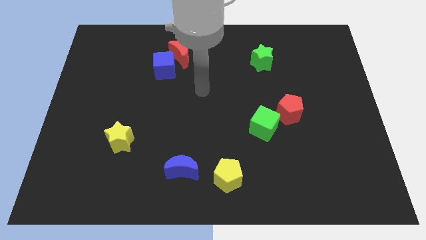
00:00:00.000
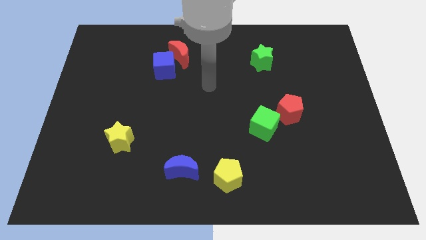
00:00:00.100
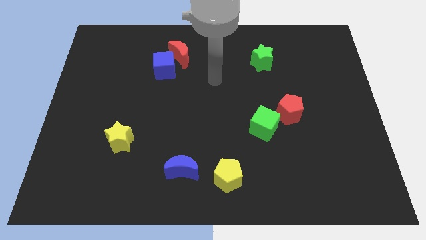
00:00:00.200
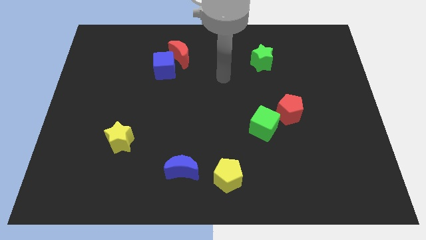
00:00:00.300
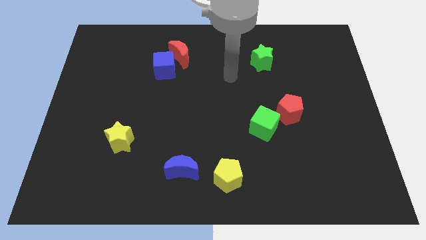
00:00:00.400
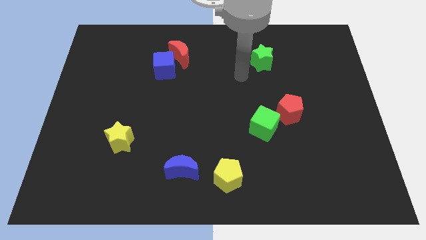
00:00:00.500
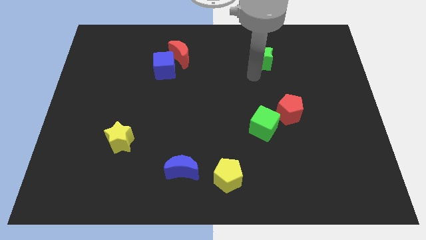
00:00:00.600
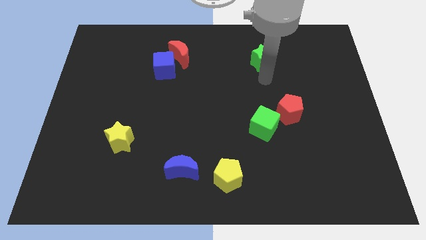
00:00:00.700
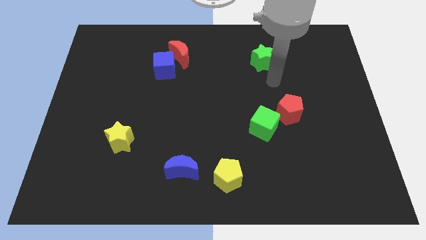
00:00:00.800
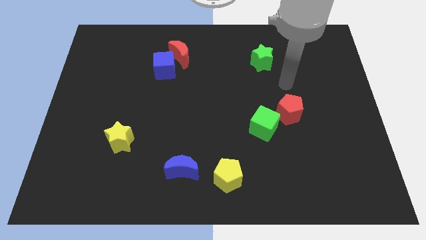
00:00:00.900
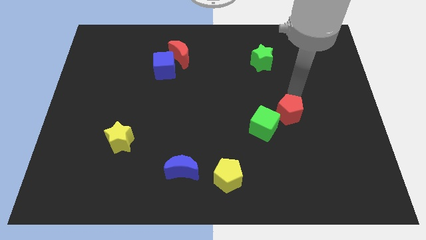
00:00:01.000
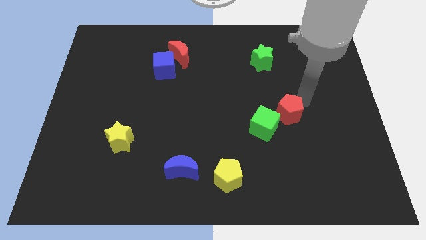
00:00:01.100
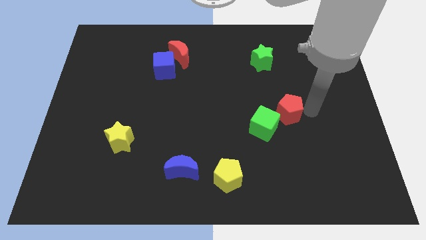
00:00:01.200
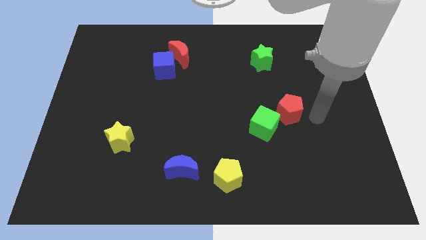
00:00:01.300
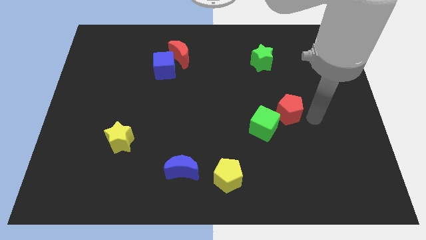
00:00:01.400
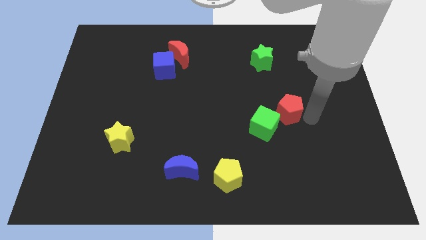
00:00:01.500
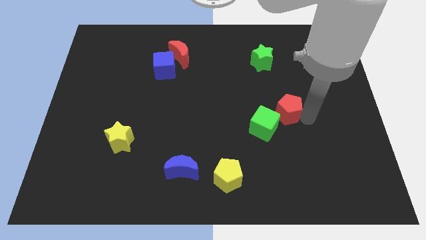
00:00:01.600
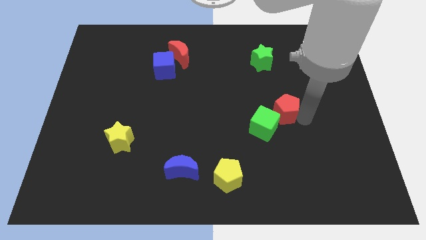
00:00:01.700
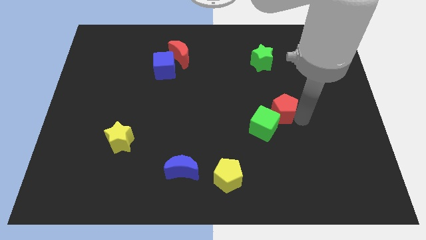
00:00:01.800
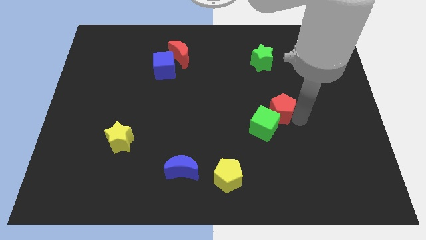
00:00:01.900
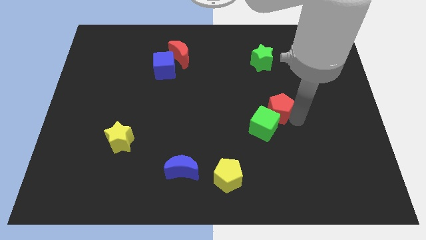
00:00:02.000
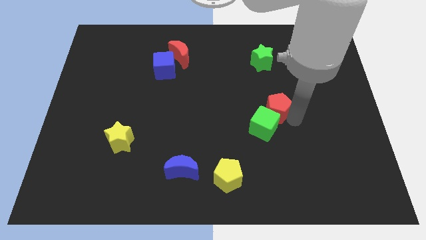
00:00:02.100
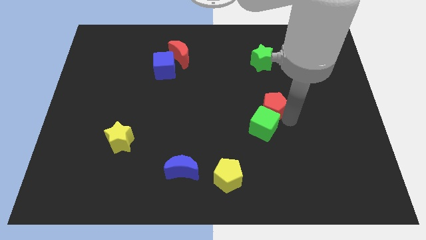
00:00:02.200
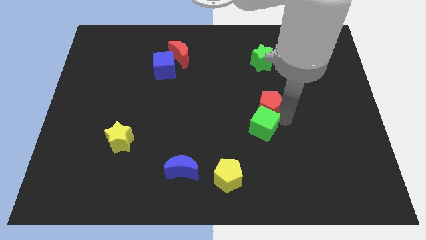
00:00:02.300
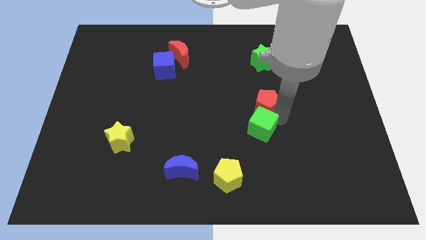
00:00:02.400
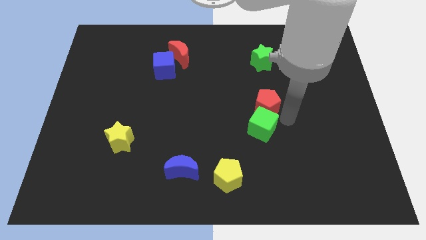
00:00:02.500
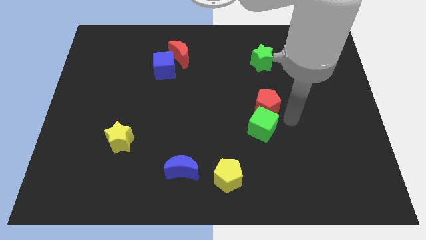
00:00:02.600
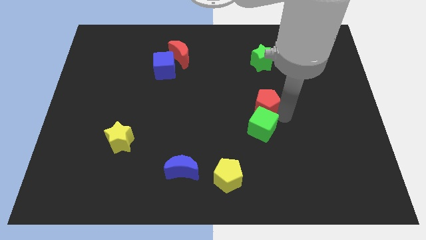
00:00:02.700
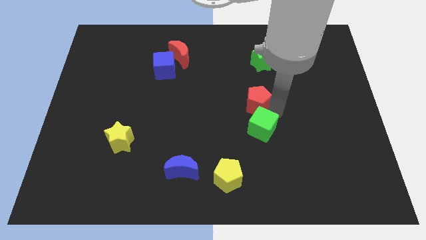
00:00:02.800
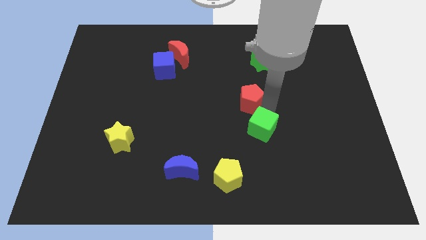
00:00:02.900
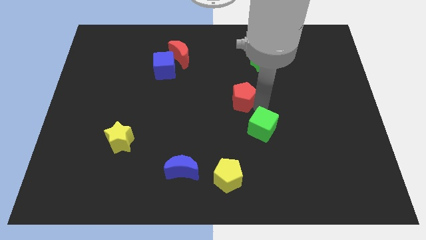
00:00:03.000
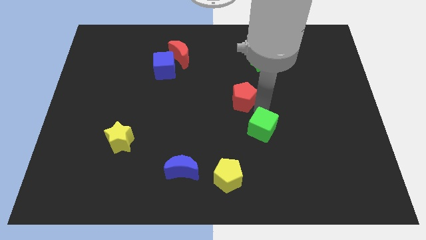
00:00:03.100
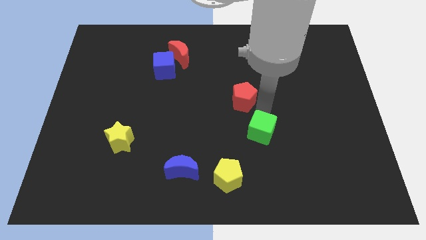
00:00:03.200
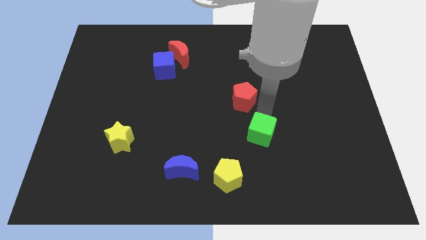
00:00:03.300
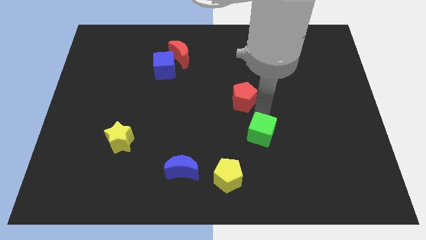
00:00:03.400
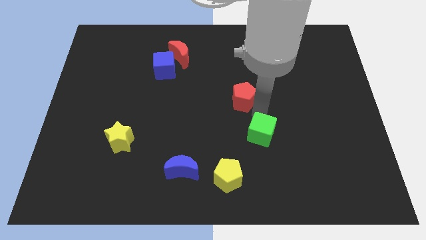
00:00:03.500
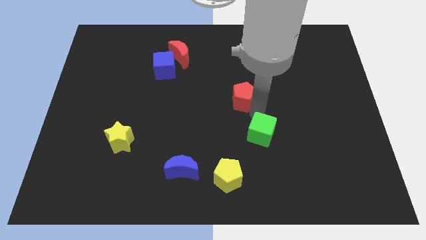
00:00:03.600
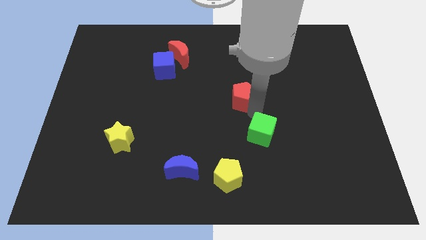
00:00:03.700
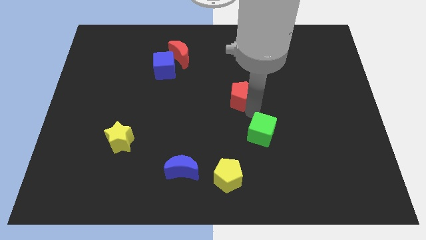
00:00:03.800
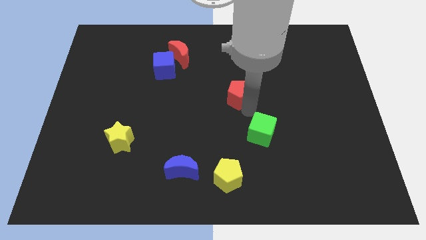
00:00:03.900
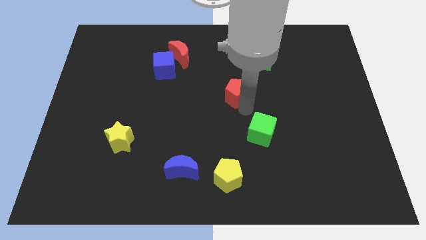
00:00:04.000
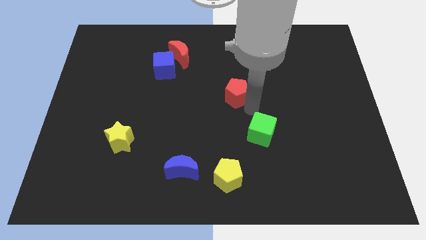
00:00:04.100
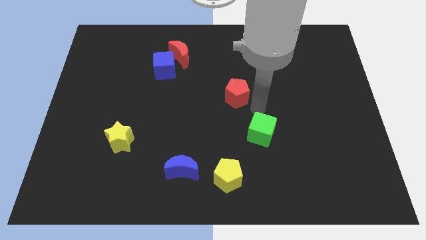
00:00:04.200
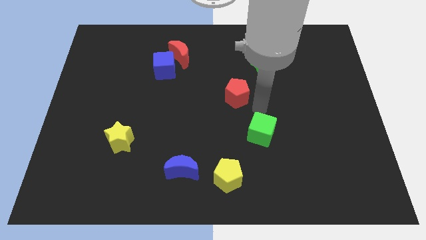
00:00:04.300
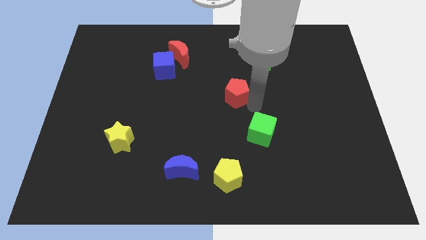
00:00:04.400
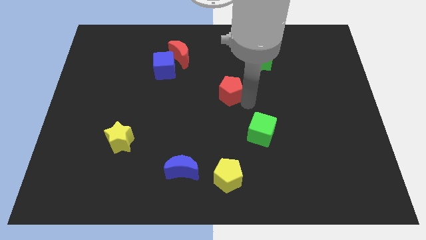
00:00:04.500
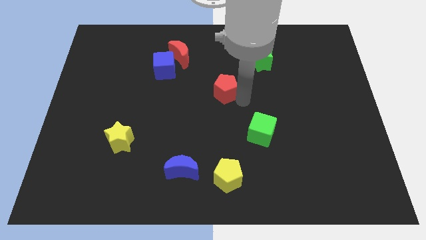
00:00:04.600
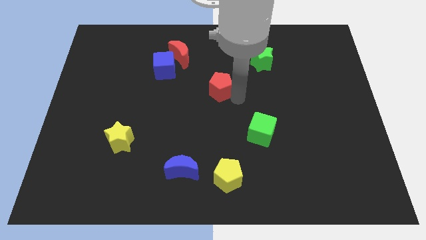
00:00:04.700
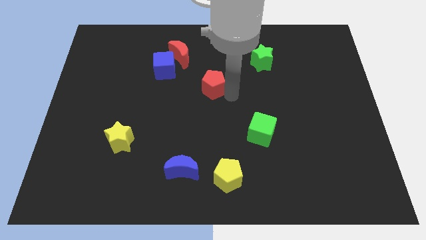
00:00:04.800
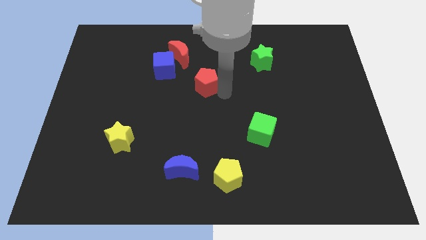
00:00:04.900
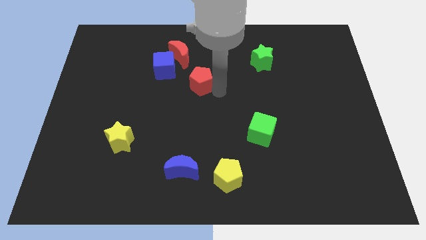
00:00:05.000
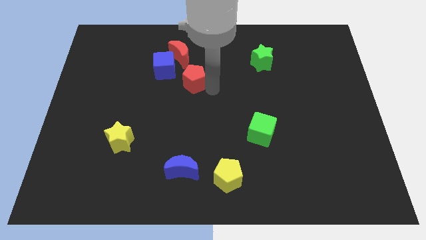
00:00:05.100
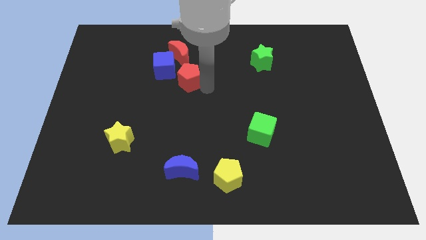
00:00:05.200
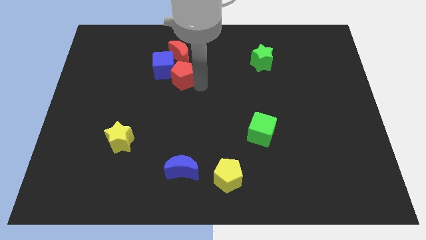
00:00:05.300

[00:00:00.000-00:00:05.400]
move the red pentagon to the blue cube

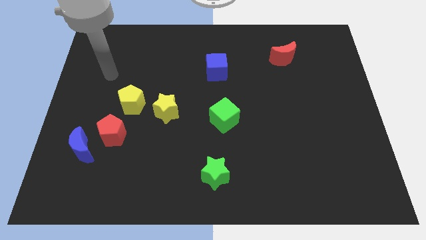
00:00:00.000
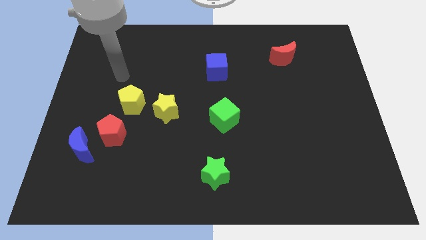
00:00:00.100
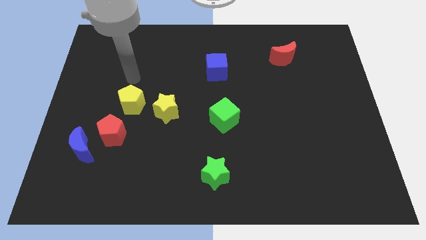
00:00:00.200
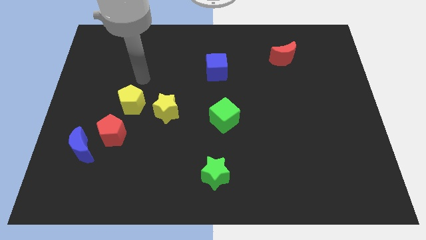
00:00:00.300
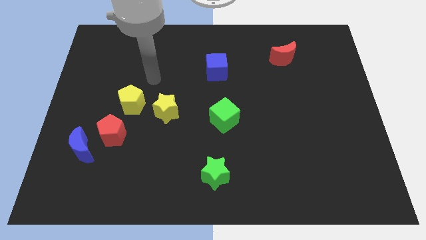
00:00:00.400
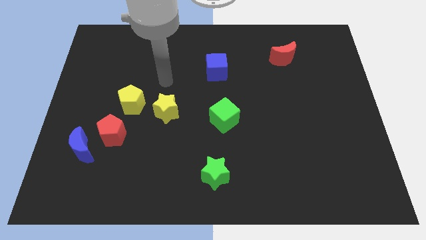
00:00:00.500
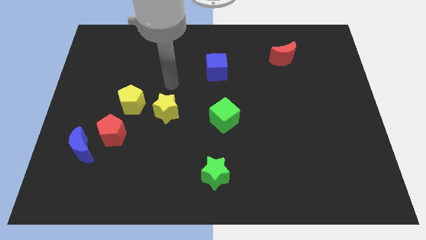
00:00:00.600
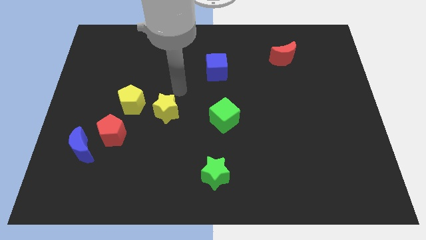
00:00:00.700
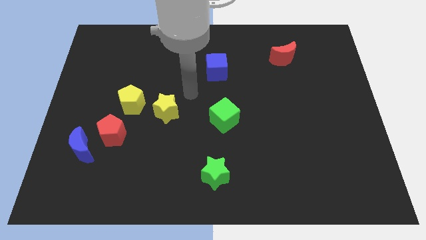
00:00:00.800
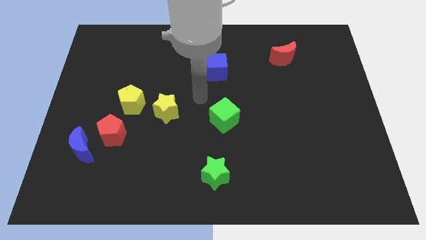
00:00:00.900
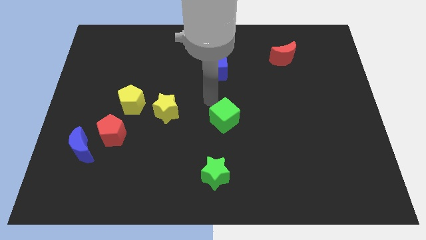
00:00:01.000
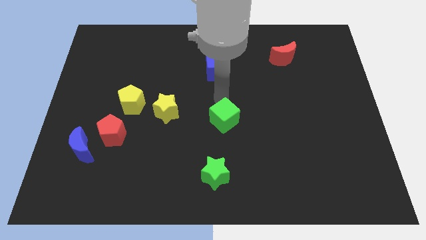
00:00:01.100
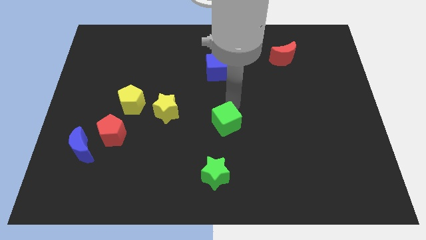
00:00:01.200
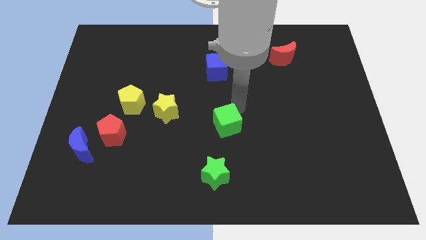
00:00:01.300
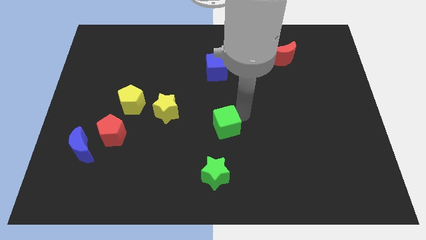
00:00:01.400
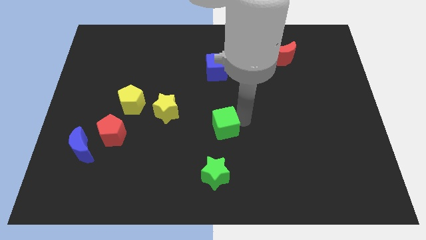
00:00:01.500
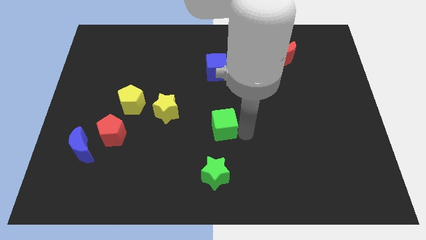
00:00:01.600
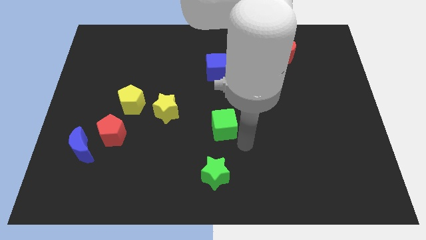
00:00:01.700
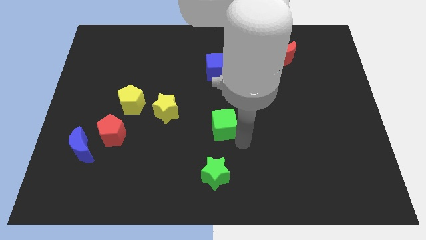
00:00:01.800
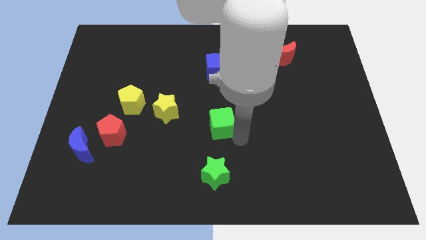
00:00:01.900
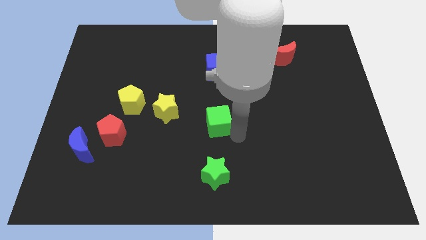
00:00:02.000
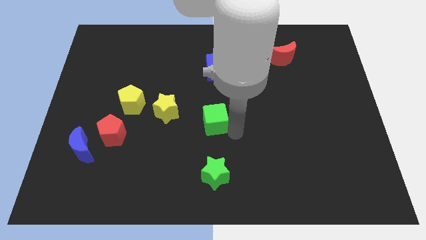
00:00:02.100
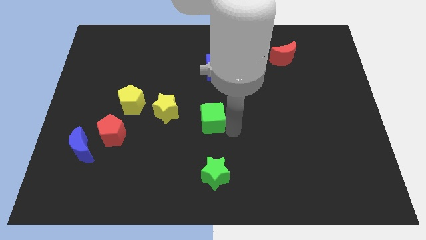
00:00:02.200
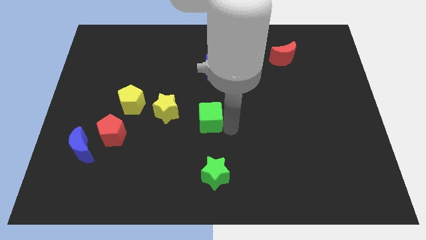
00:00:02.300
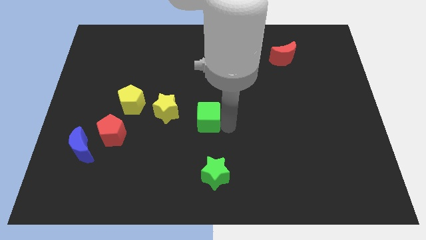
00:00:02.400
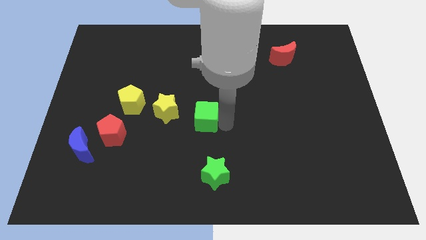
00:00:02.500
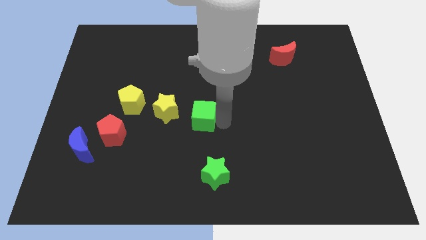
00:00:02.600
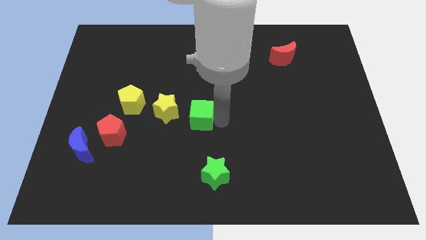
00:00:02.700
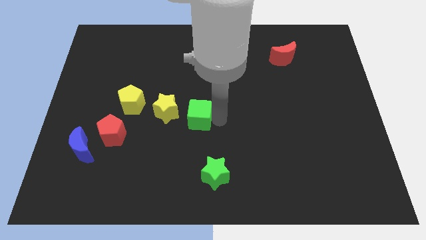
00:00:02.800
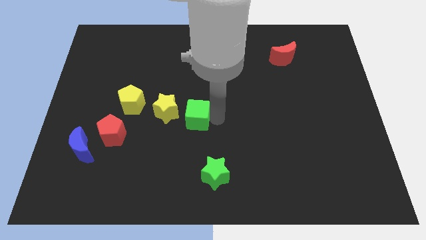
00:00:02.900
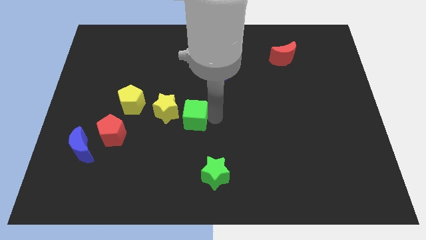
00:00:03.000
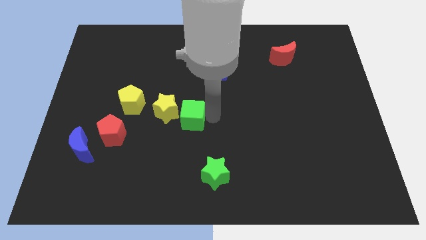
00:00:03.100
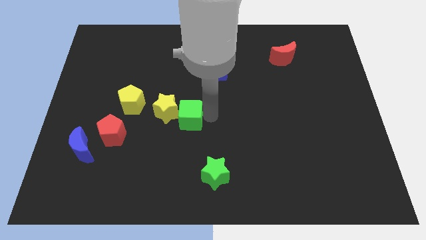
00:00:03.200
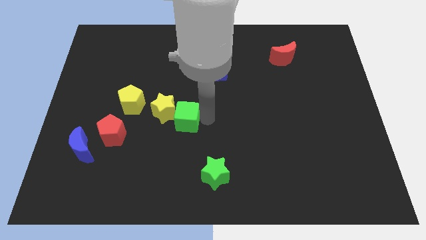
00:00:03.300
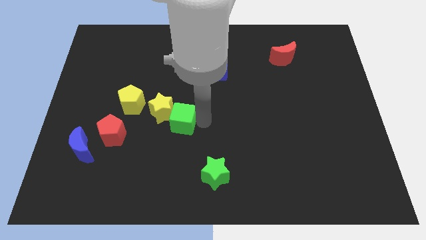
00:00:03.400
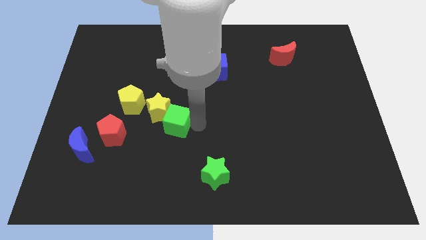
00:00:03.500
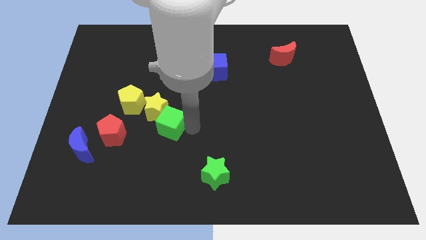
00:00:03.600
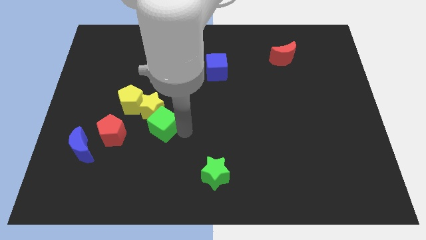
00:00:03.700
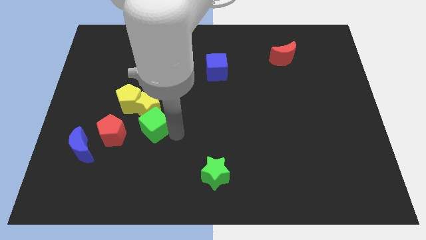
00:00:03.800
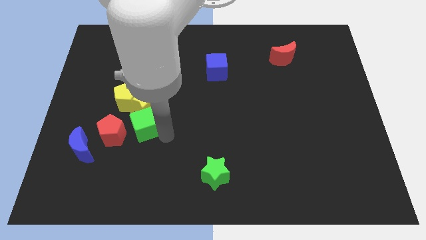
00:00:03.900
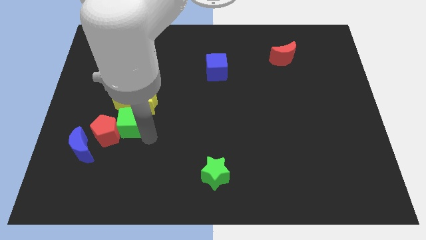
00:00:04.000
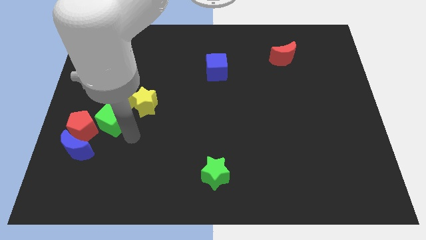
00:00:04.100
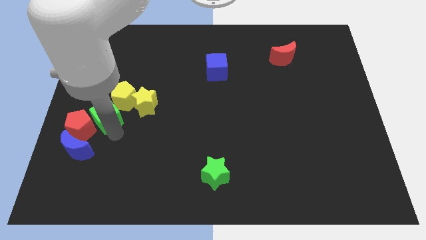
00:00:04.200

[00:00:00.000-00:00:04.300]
move the green cube next to the yellow pentagon
